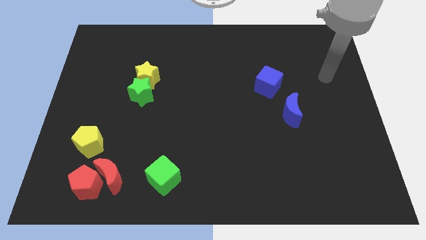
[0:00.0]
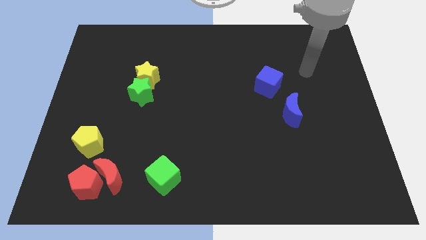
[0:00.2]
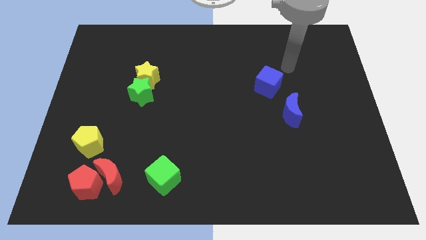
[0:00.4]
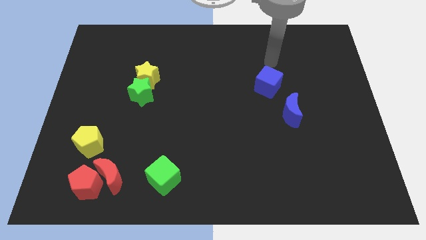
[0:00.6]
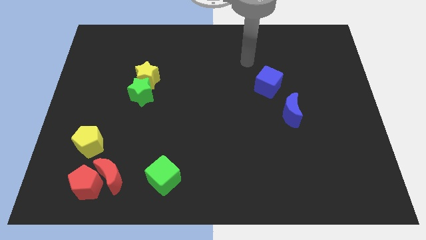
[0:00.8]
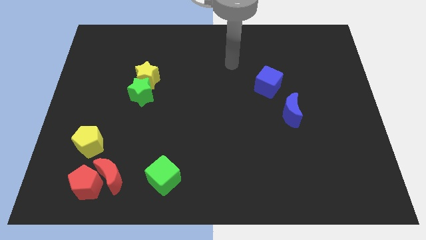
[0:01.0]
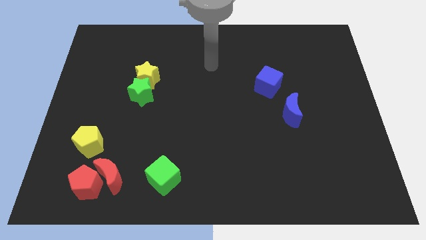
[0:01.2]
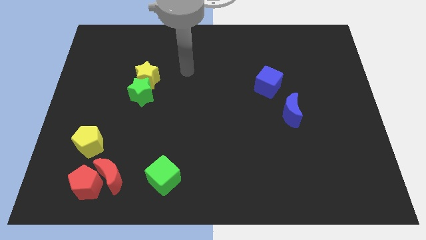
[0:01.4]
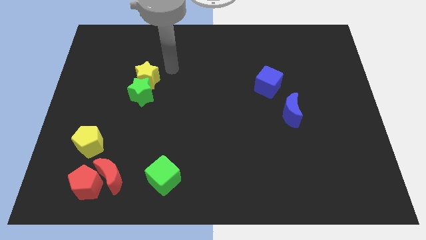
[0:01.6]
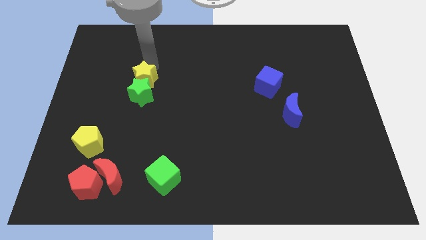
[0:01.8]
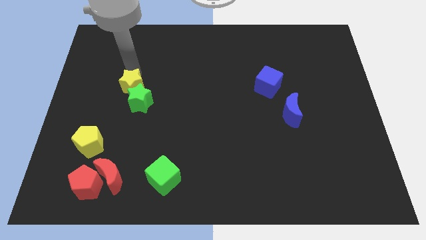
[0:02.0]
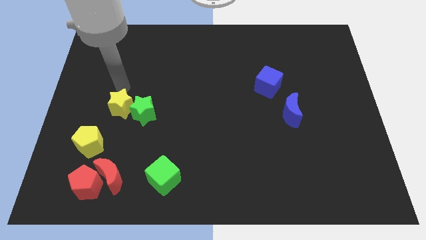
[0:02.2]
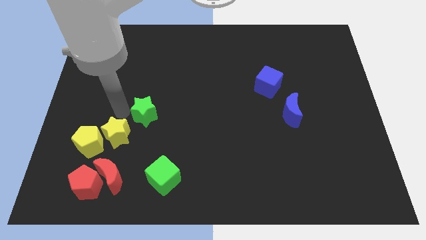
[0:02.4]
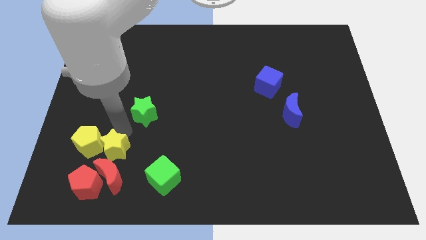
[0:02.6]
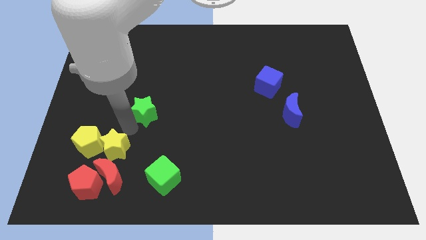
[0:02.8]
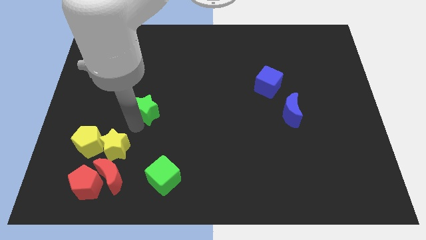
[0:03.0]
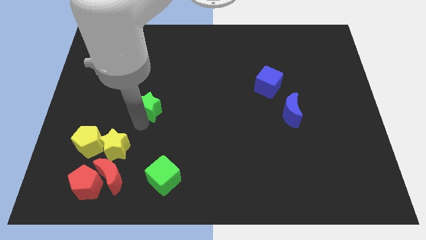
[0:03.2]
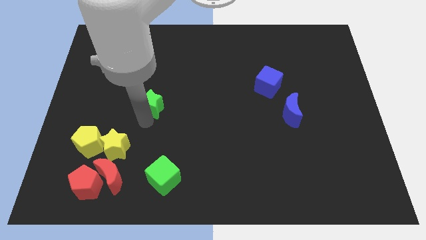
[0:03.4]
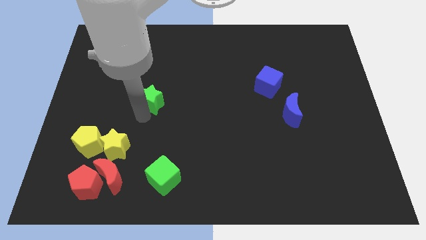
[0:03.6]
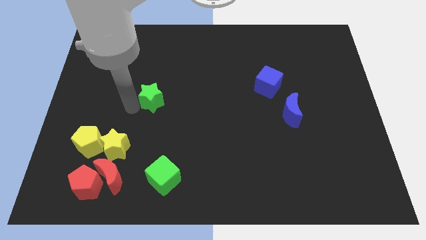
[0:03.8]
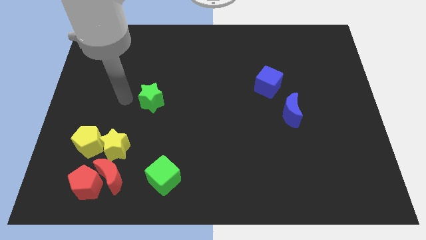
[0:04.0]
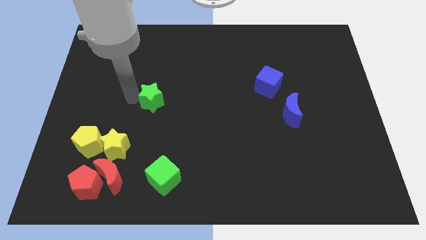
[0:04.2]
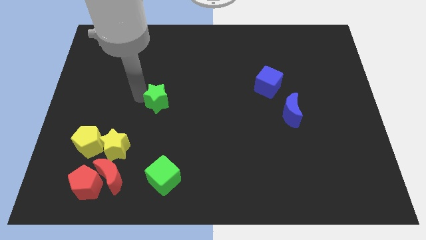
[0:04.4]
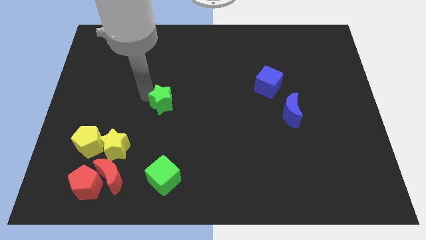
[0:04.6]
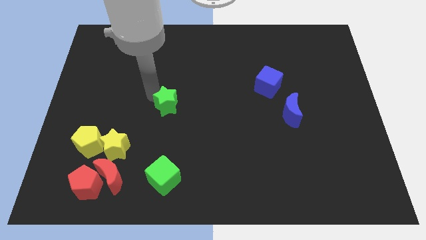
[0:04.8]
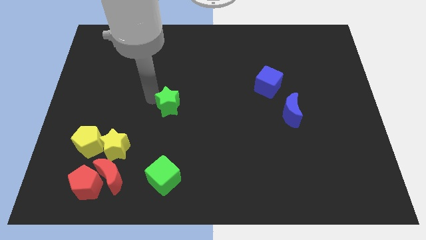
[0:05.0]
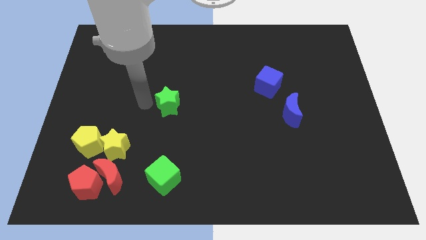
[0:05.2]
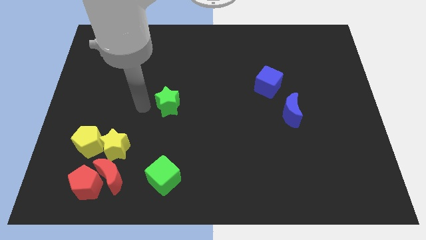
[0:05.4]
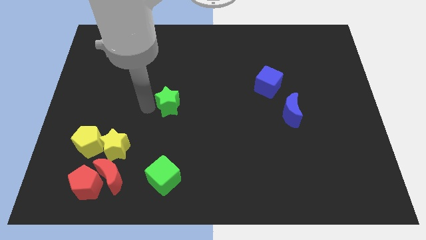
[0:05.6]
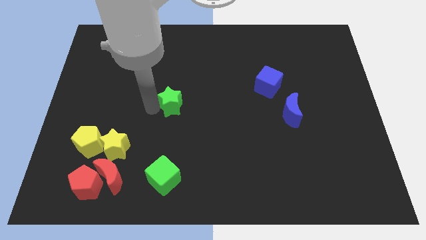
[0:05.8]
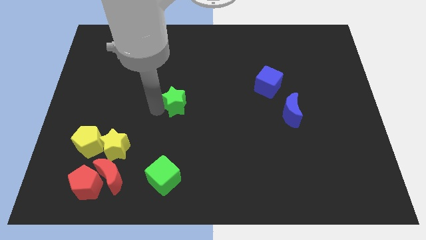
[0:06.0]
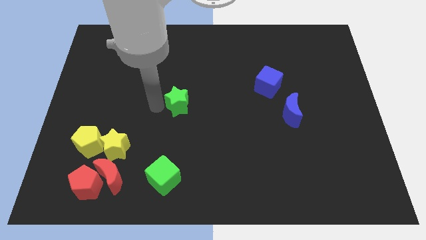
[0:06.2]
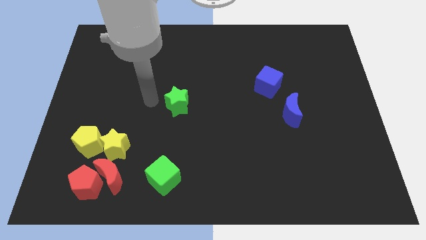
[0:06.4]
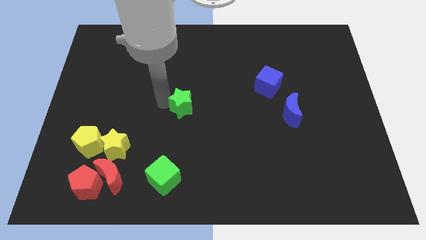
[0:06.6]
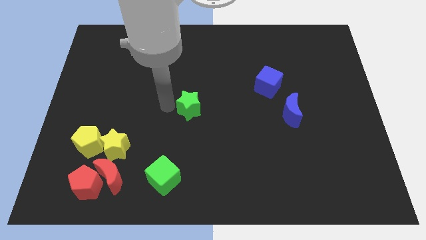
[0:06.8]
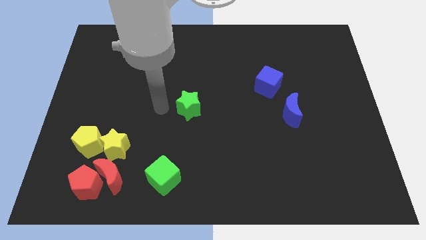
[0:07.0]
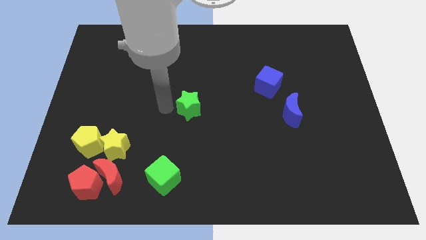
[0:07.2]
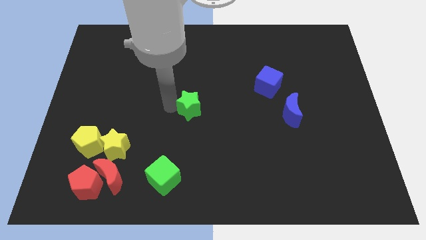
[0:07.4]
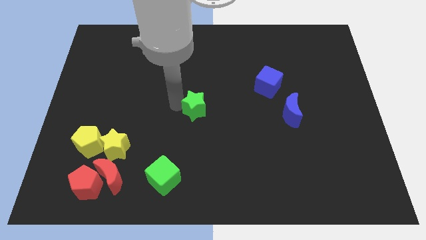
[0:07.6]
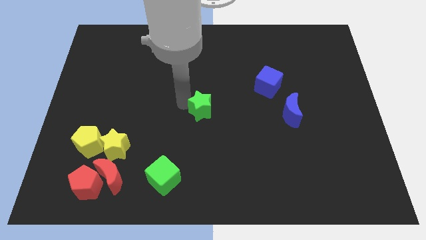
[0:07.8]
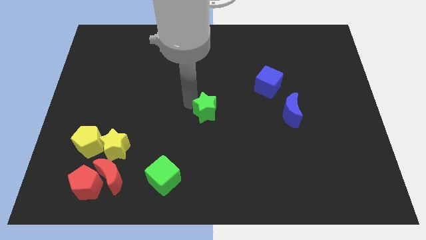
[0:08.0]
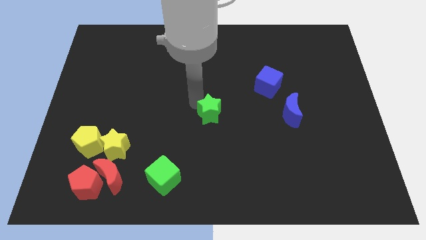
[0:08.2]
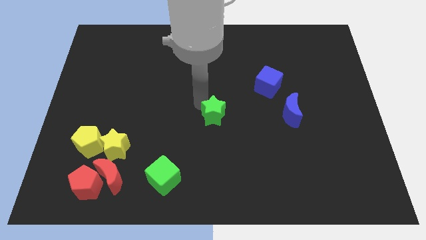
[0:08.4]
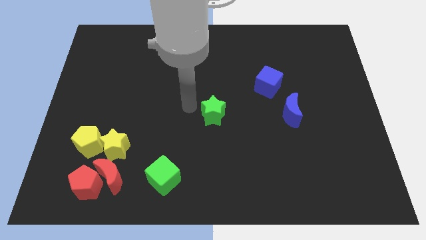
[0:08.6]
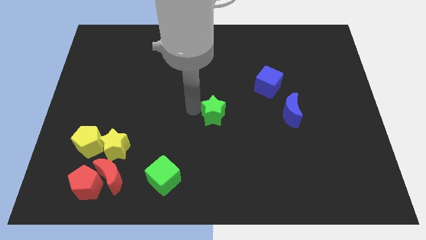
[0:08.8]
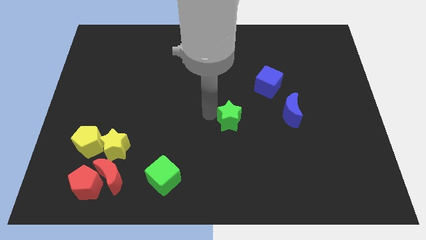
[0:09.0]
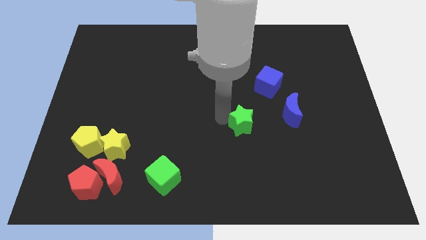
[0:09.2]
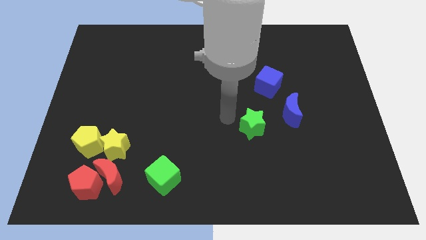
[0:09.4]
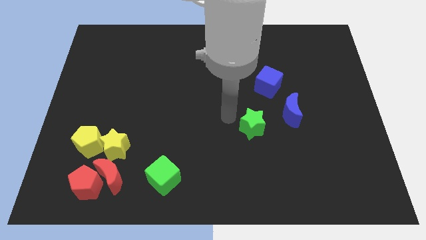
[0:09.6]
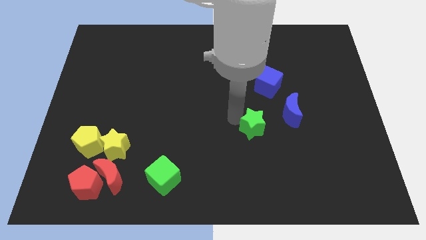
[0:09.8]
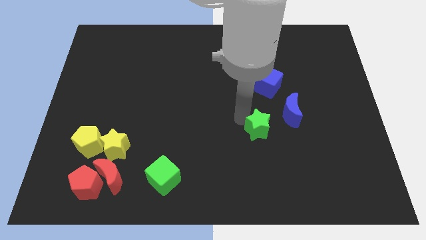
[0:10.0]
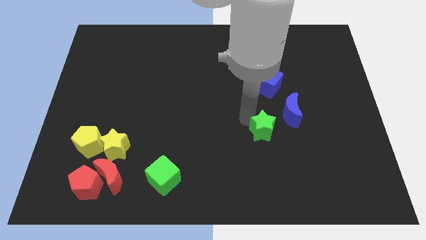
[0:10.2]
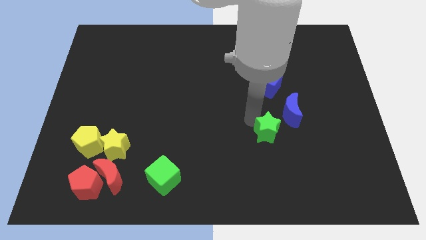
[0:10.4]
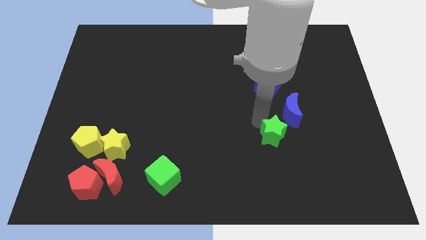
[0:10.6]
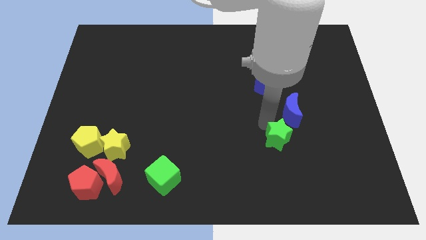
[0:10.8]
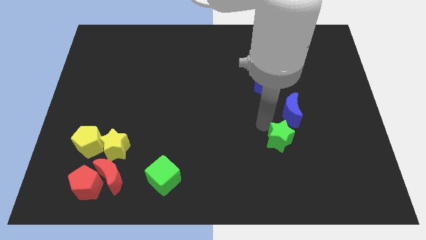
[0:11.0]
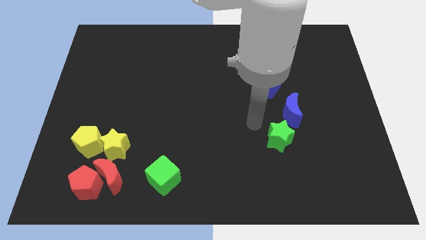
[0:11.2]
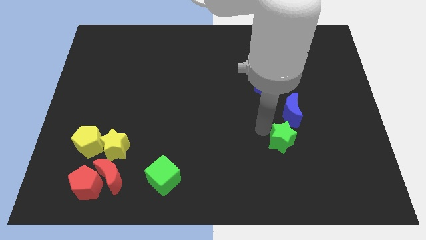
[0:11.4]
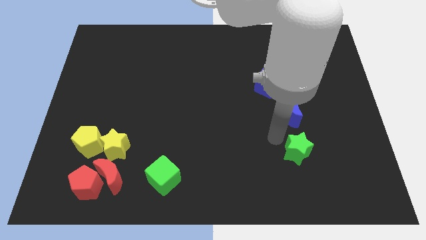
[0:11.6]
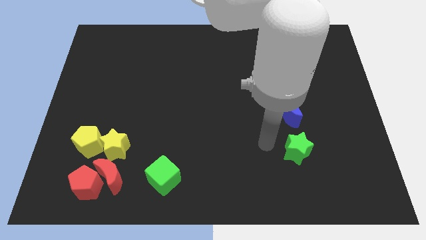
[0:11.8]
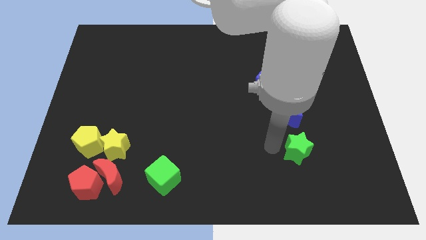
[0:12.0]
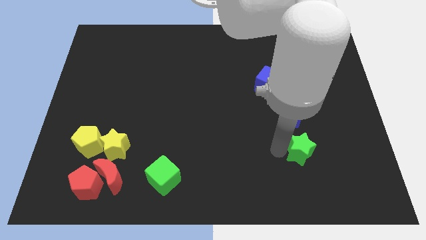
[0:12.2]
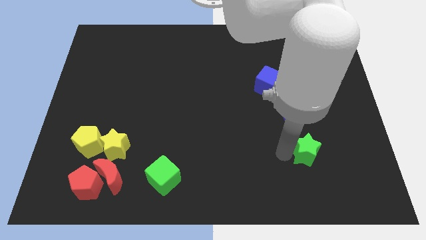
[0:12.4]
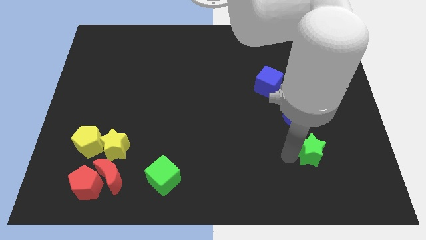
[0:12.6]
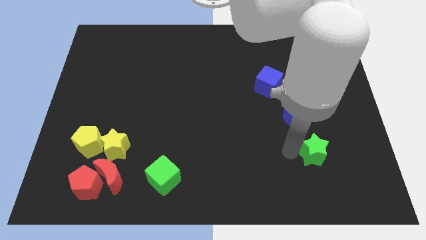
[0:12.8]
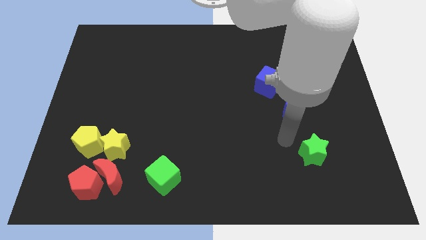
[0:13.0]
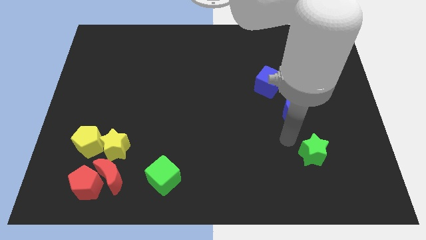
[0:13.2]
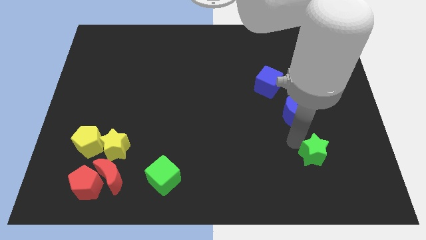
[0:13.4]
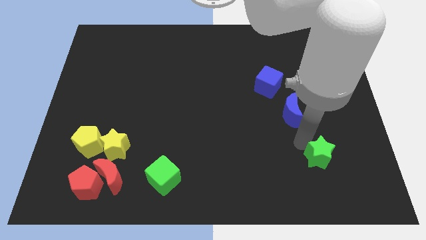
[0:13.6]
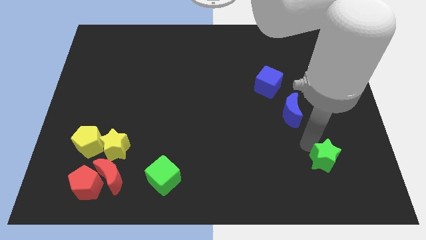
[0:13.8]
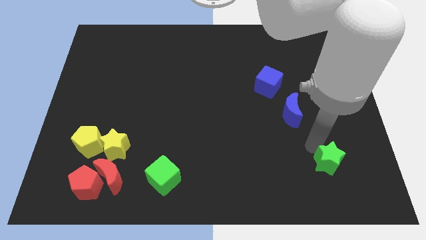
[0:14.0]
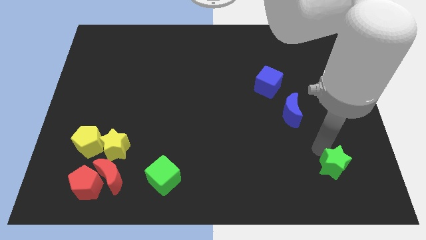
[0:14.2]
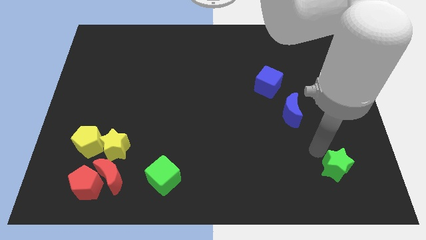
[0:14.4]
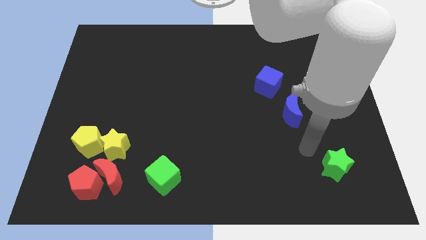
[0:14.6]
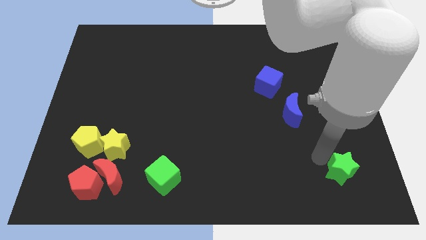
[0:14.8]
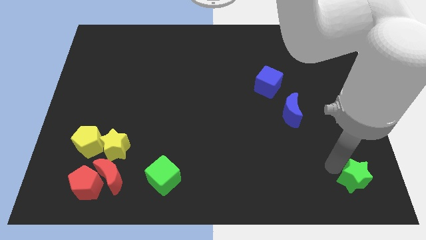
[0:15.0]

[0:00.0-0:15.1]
put the green star to the bottom right of the board
